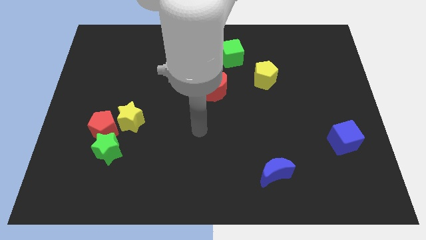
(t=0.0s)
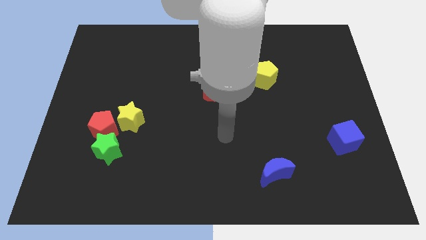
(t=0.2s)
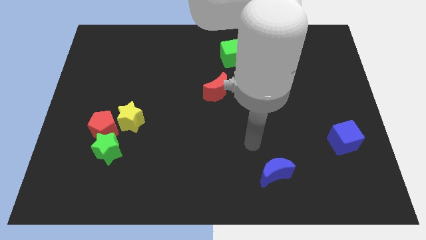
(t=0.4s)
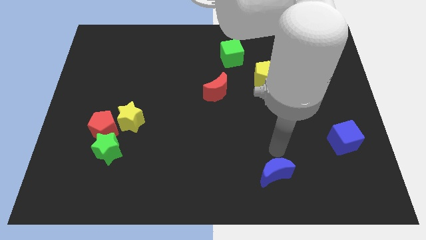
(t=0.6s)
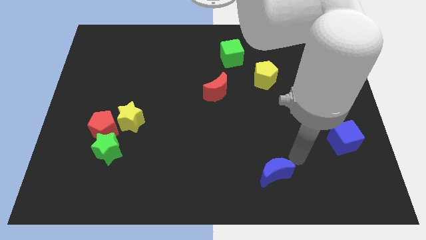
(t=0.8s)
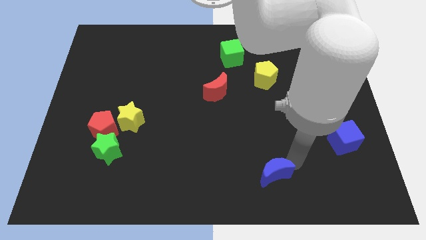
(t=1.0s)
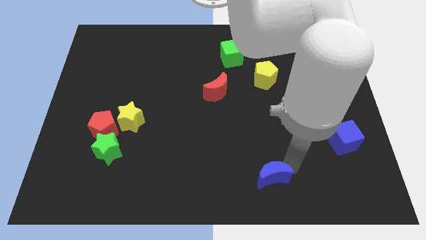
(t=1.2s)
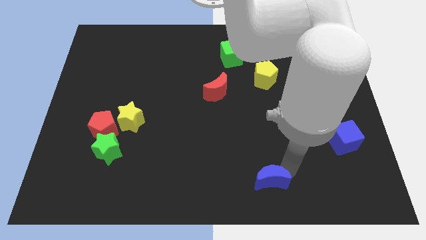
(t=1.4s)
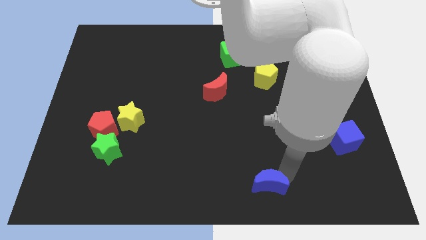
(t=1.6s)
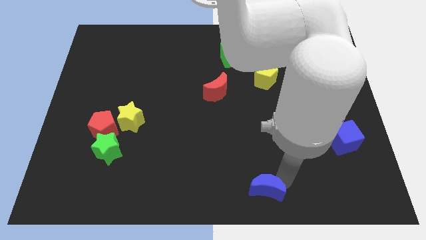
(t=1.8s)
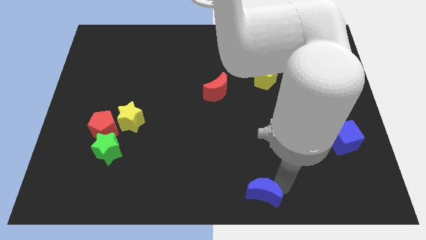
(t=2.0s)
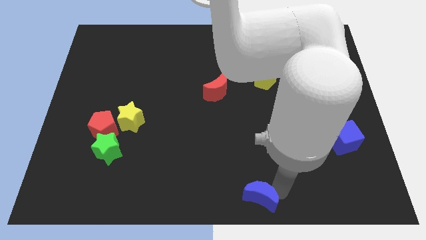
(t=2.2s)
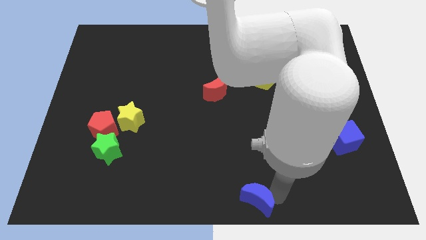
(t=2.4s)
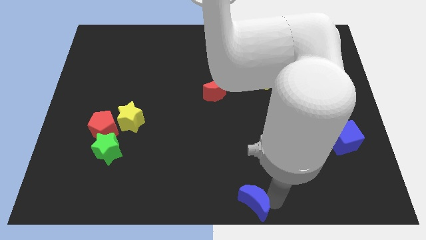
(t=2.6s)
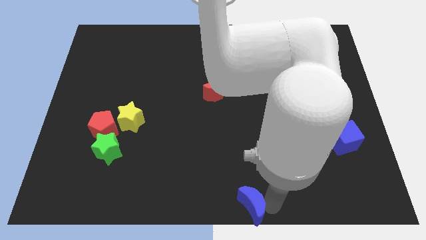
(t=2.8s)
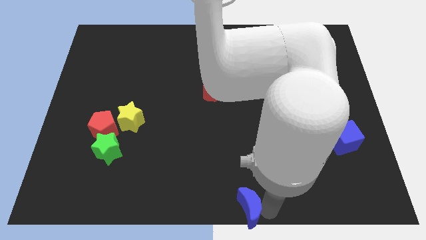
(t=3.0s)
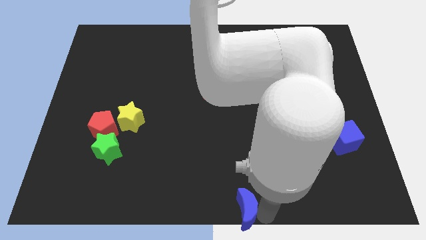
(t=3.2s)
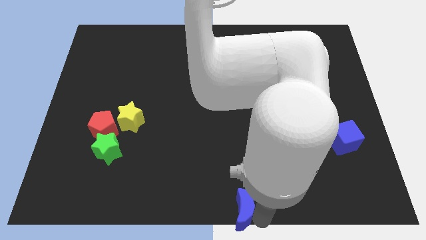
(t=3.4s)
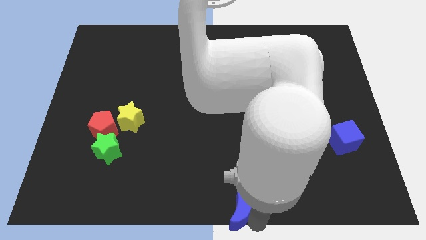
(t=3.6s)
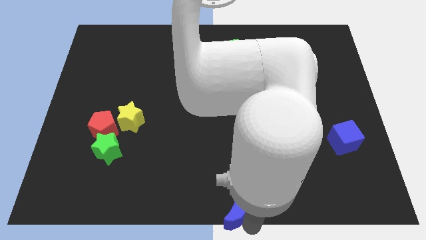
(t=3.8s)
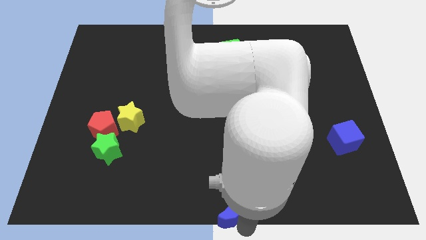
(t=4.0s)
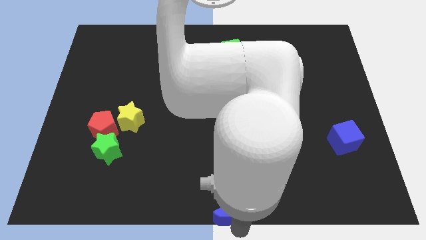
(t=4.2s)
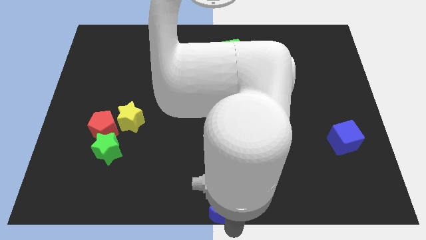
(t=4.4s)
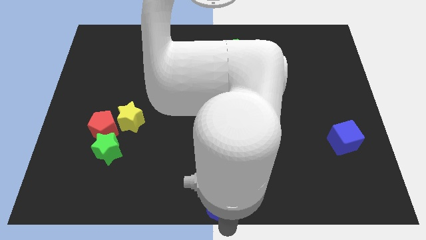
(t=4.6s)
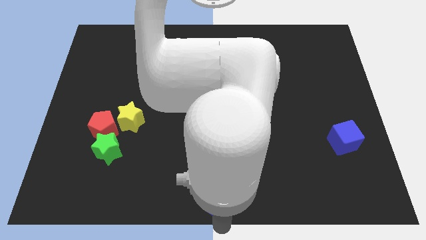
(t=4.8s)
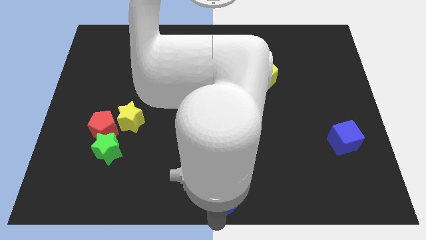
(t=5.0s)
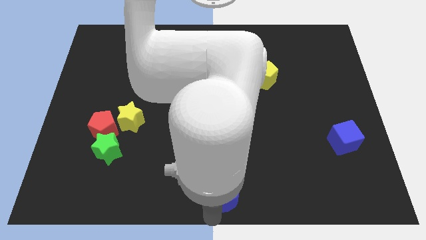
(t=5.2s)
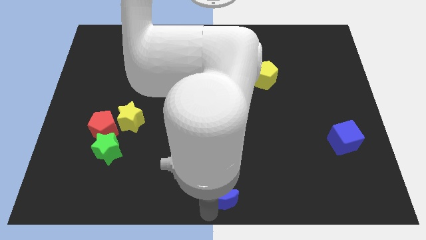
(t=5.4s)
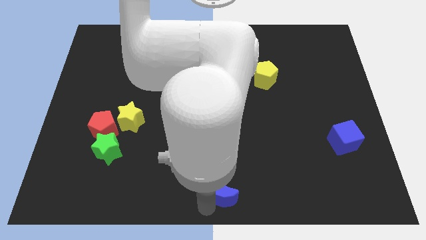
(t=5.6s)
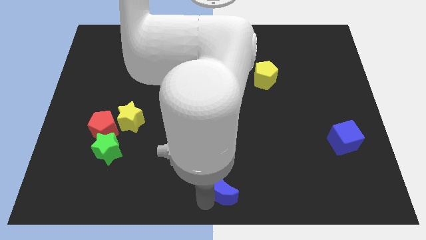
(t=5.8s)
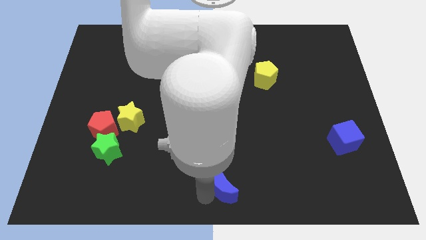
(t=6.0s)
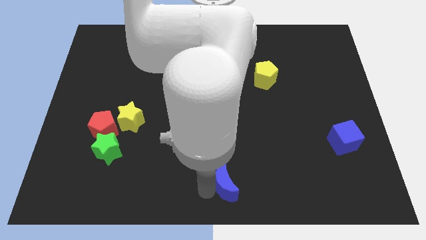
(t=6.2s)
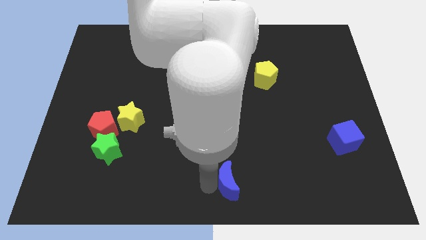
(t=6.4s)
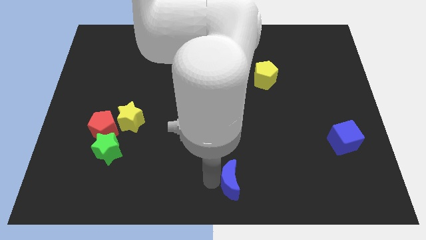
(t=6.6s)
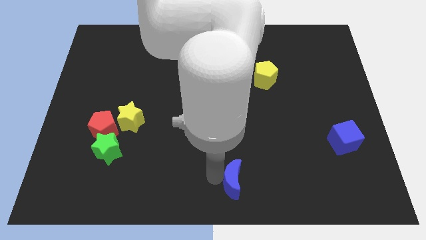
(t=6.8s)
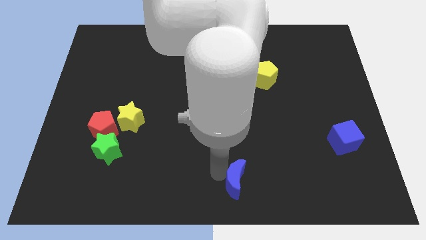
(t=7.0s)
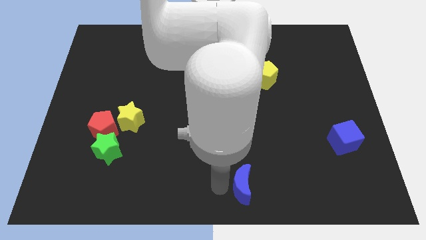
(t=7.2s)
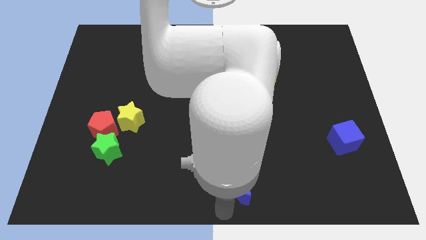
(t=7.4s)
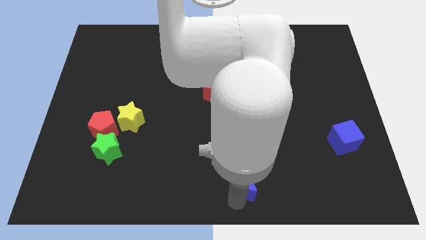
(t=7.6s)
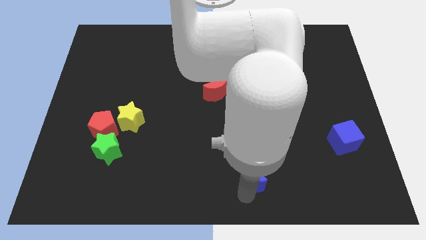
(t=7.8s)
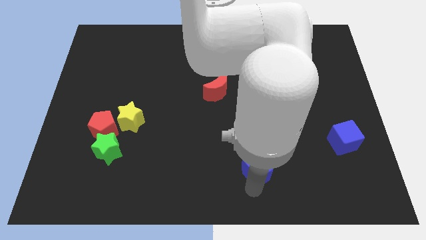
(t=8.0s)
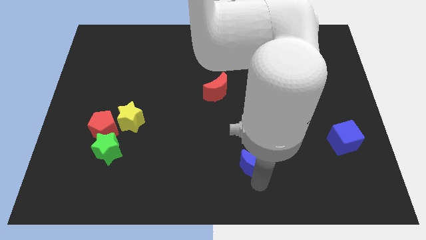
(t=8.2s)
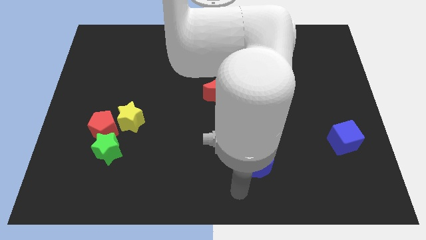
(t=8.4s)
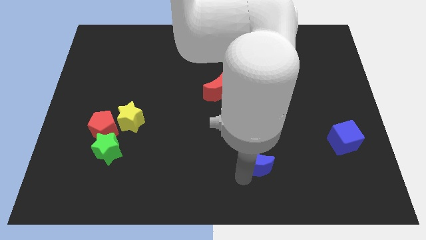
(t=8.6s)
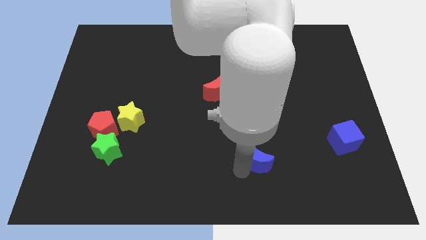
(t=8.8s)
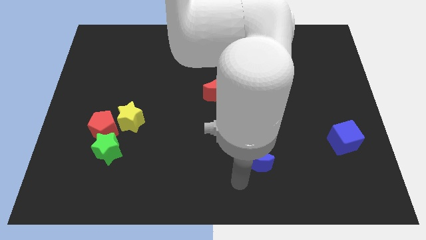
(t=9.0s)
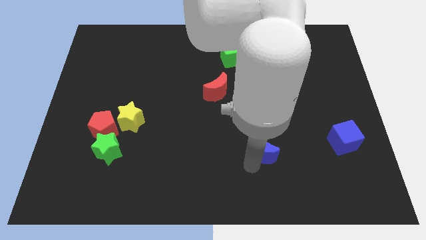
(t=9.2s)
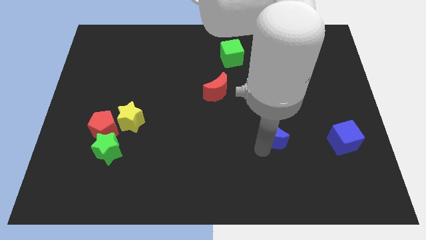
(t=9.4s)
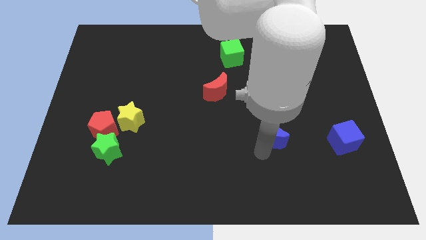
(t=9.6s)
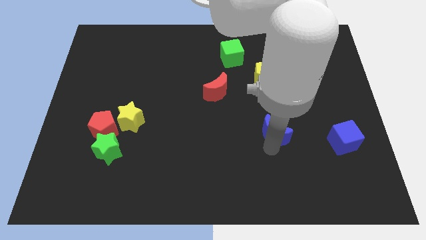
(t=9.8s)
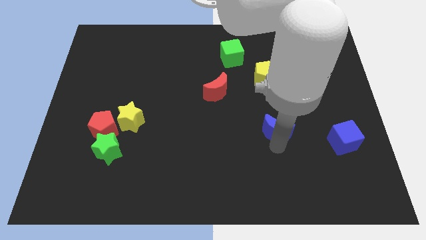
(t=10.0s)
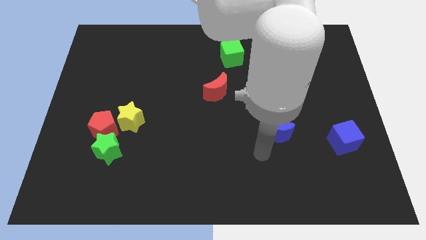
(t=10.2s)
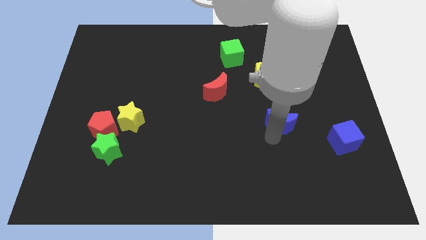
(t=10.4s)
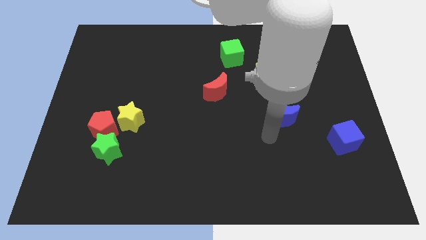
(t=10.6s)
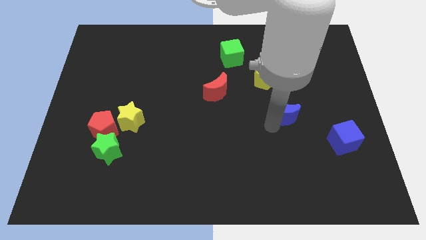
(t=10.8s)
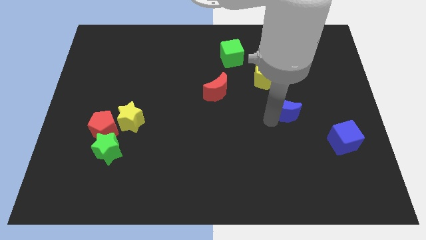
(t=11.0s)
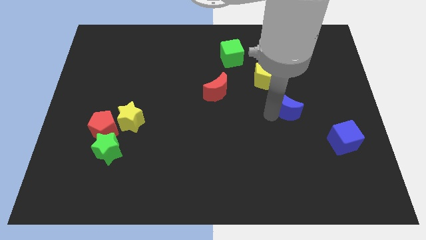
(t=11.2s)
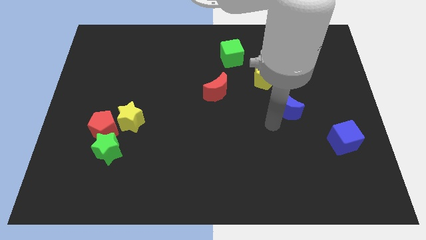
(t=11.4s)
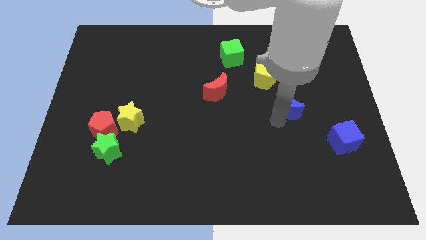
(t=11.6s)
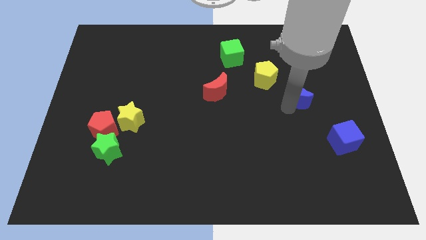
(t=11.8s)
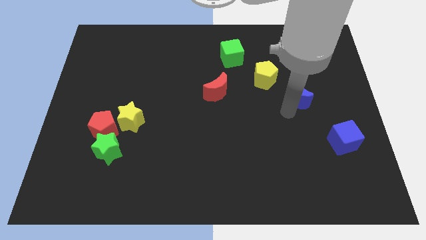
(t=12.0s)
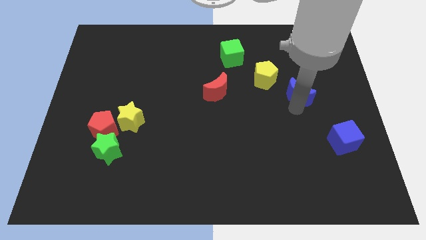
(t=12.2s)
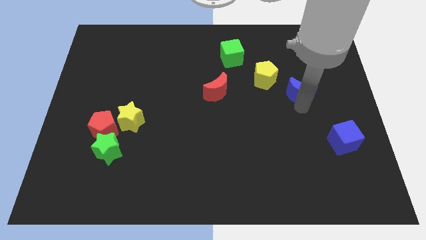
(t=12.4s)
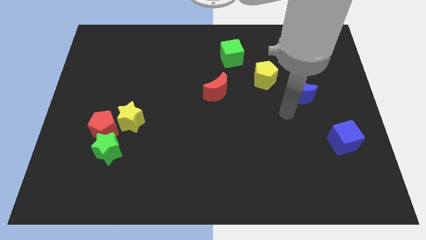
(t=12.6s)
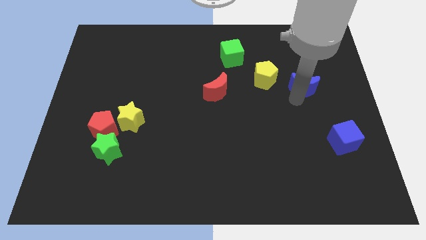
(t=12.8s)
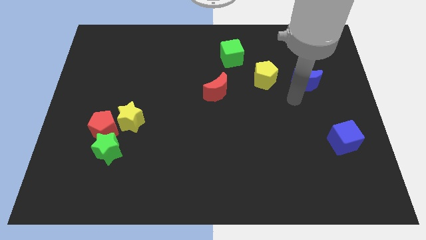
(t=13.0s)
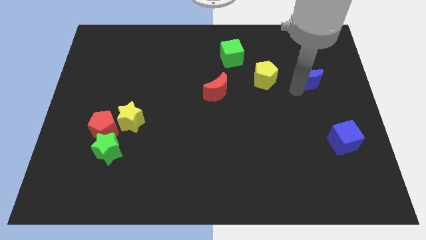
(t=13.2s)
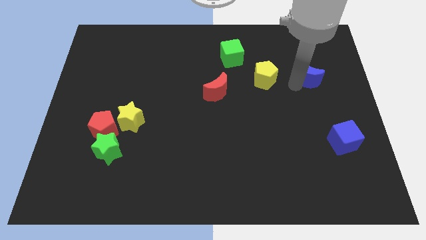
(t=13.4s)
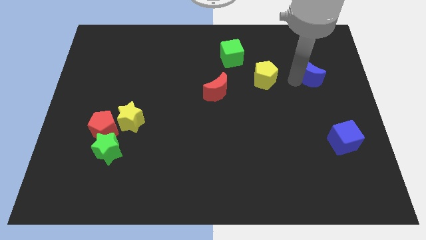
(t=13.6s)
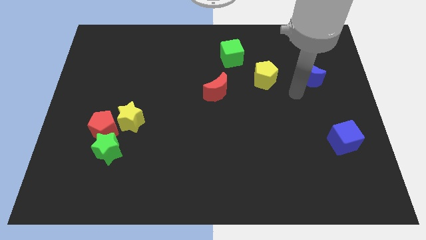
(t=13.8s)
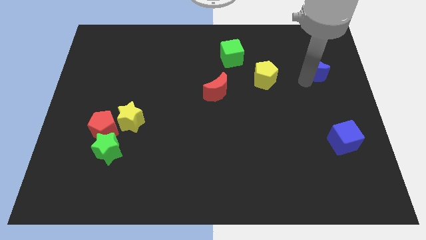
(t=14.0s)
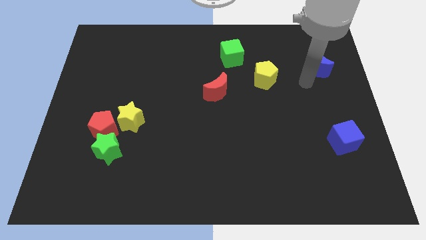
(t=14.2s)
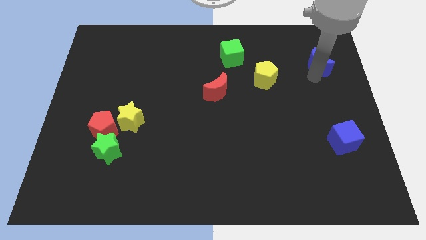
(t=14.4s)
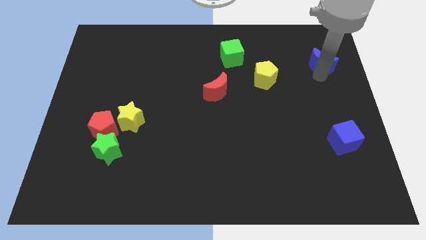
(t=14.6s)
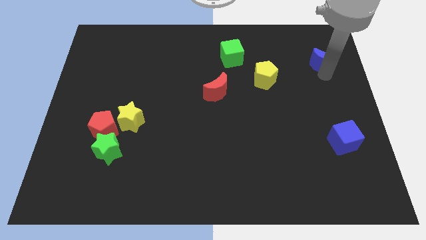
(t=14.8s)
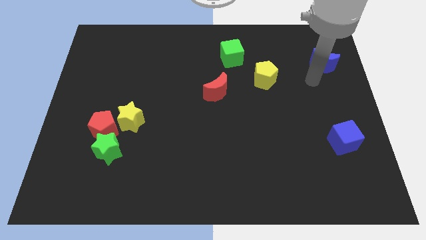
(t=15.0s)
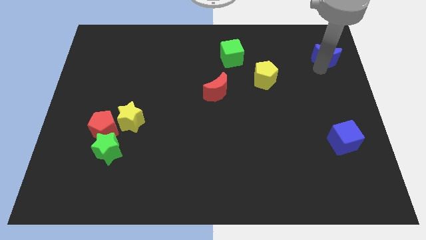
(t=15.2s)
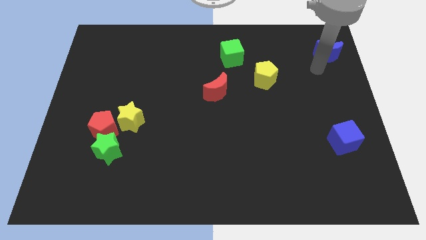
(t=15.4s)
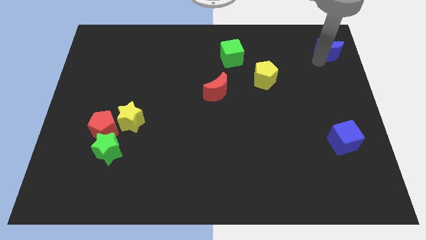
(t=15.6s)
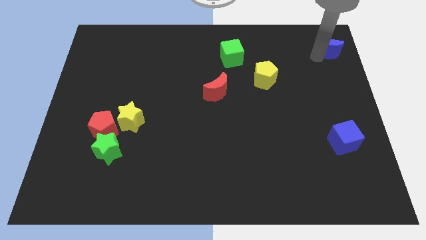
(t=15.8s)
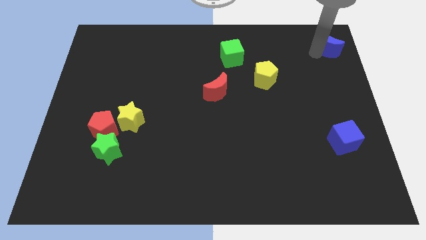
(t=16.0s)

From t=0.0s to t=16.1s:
push the blue moon to the top right corner
